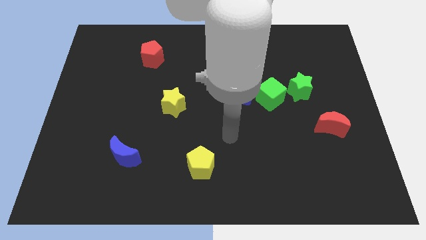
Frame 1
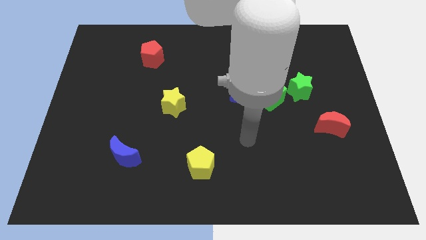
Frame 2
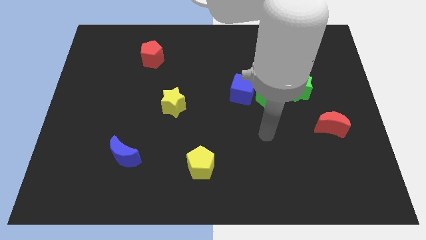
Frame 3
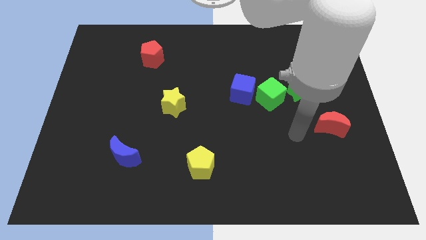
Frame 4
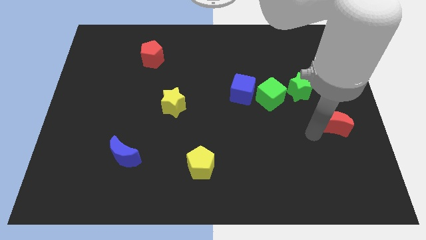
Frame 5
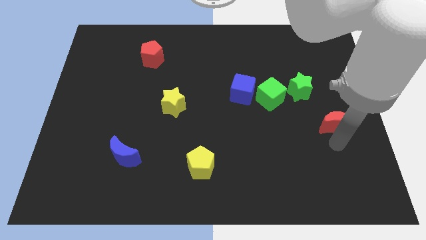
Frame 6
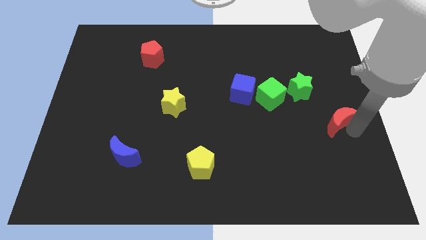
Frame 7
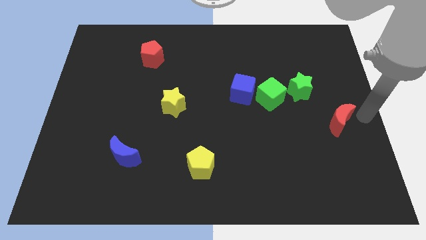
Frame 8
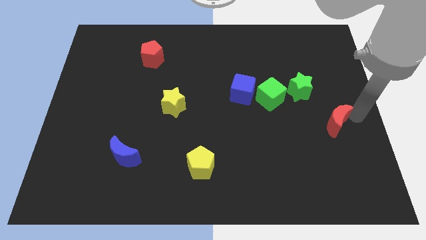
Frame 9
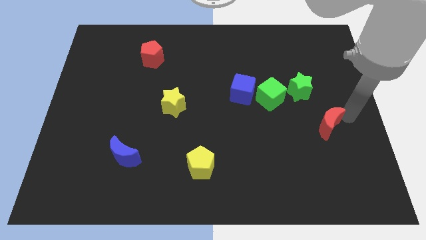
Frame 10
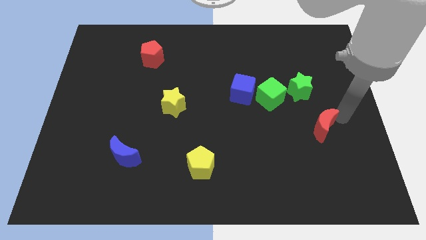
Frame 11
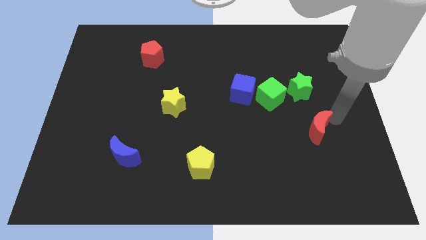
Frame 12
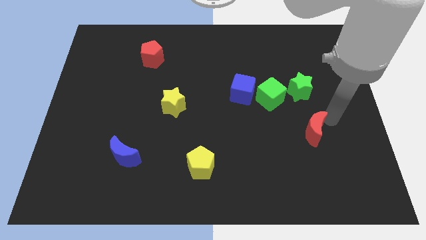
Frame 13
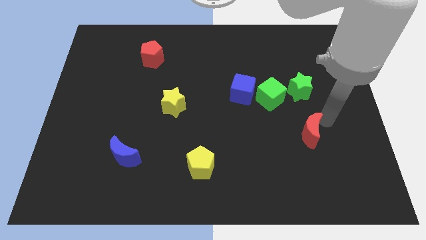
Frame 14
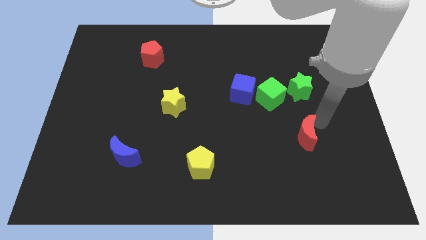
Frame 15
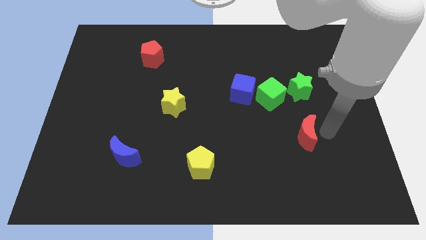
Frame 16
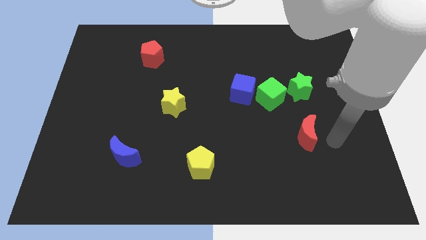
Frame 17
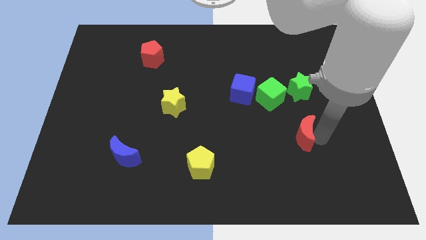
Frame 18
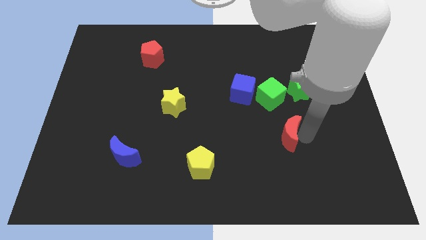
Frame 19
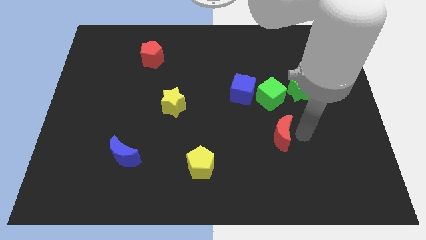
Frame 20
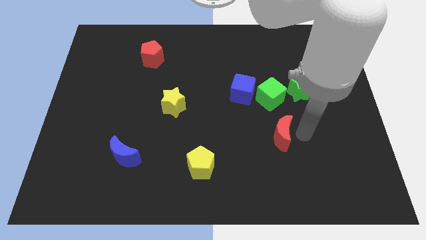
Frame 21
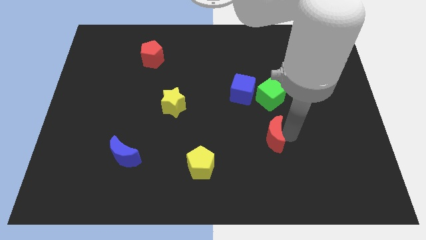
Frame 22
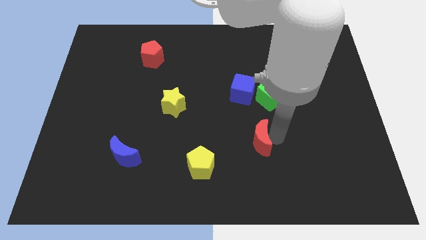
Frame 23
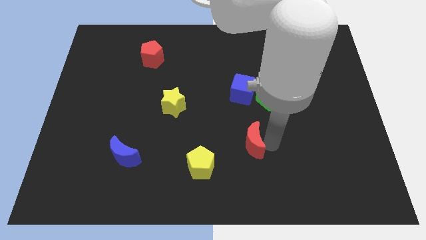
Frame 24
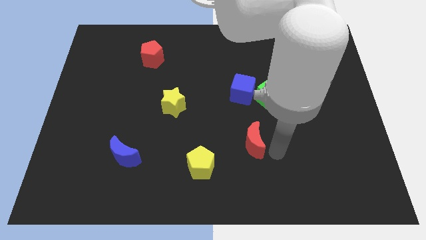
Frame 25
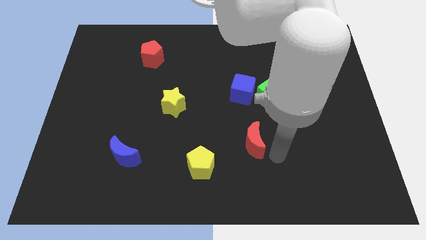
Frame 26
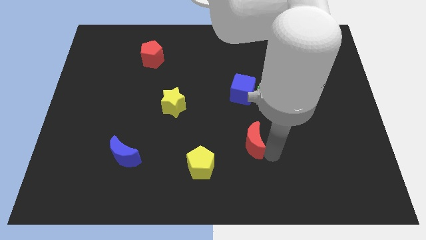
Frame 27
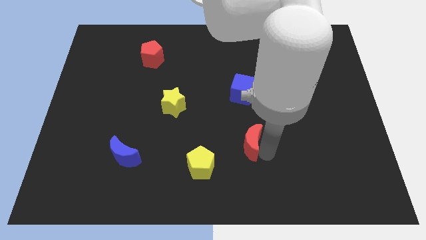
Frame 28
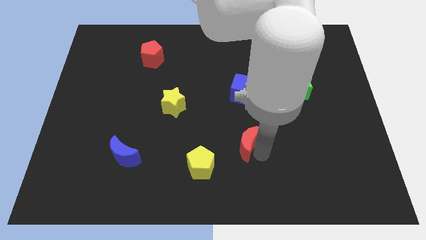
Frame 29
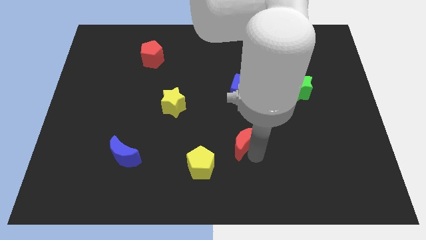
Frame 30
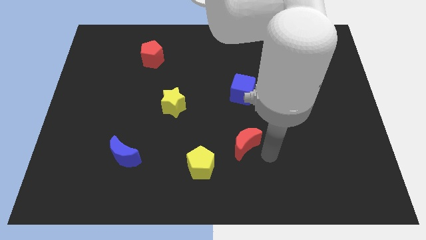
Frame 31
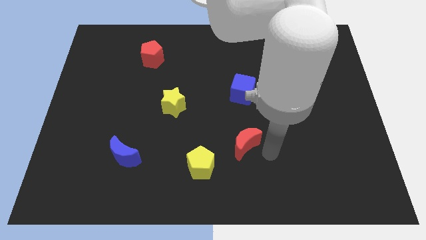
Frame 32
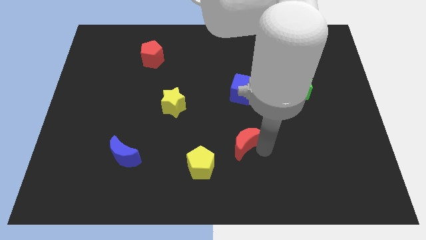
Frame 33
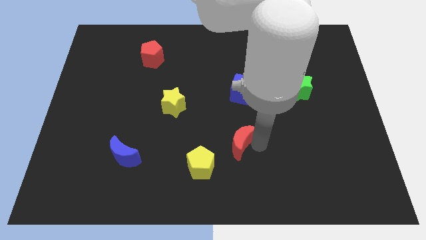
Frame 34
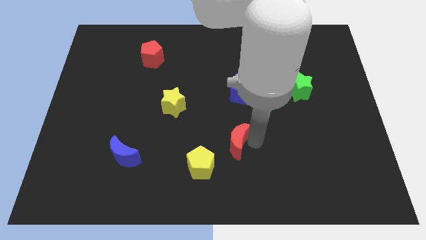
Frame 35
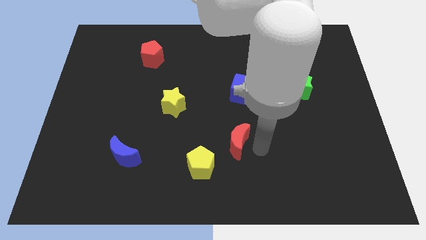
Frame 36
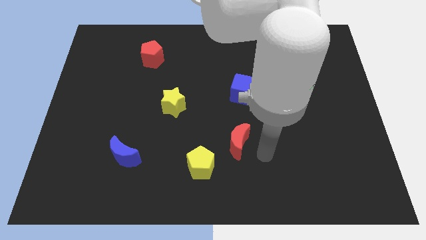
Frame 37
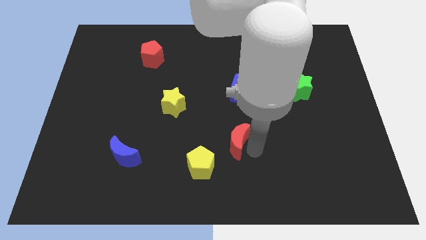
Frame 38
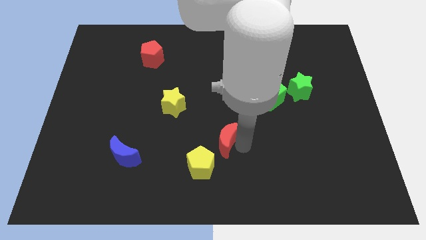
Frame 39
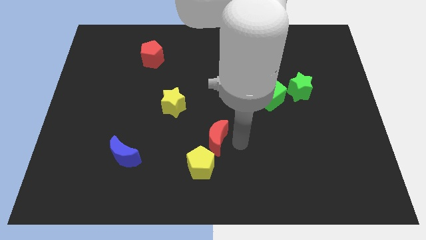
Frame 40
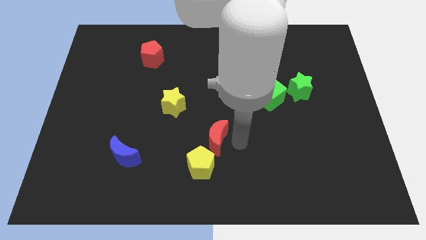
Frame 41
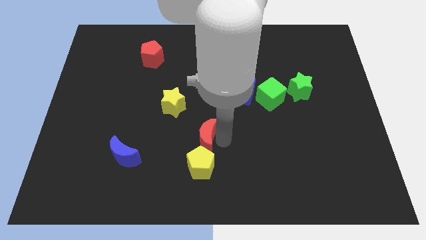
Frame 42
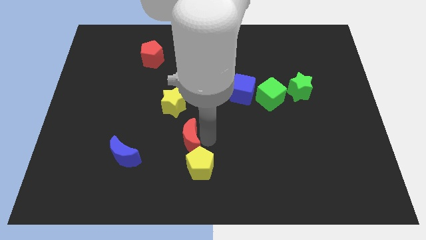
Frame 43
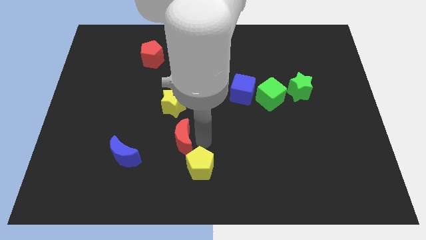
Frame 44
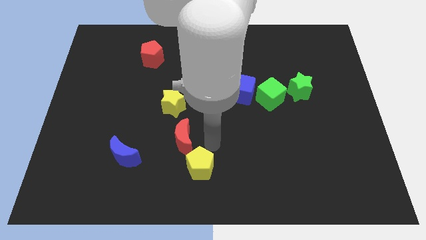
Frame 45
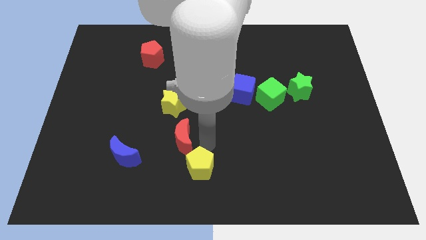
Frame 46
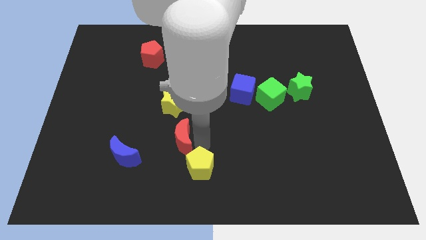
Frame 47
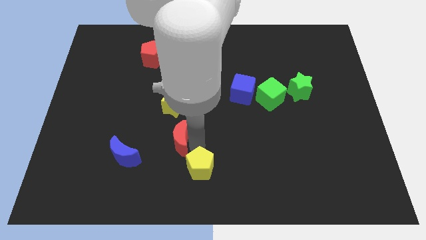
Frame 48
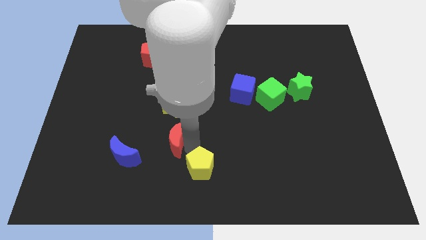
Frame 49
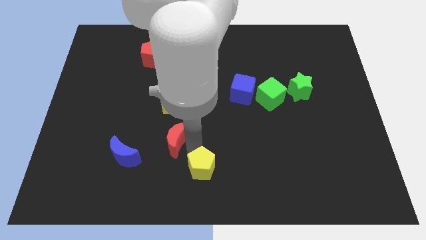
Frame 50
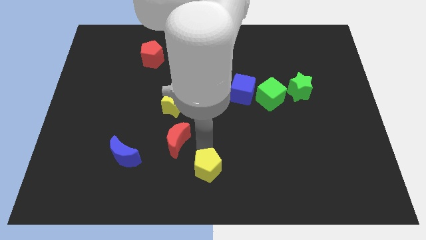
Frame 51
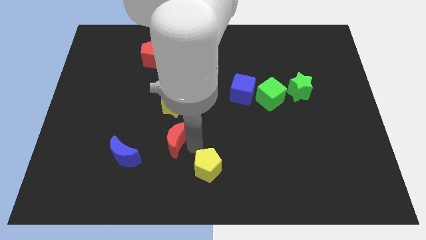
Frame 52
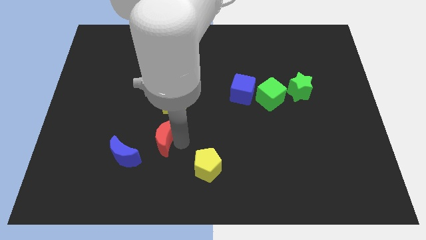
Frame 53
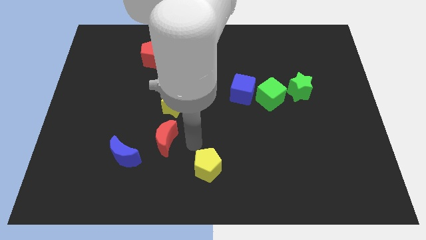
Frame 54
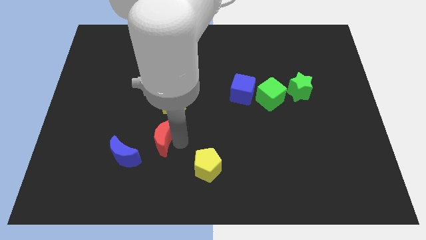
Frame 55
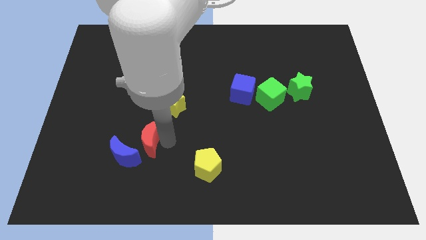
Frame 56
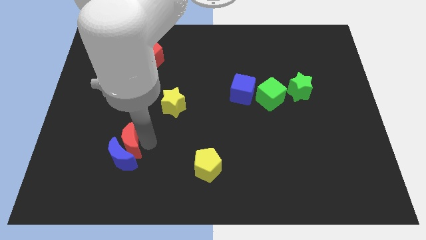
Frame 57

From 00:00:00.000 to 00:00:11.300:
move the red moon diagonally up and to the left of the blue moon

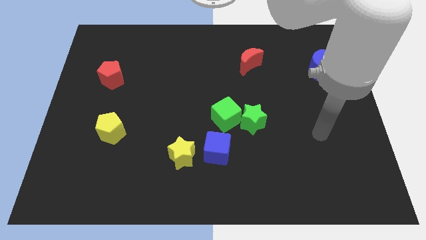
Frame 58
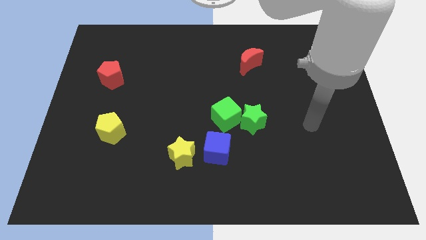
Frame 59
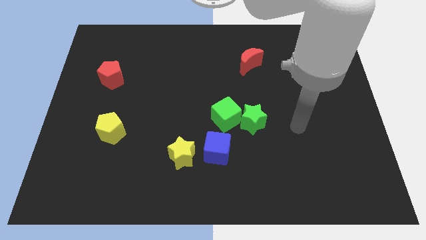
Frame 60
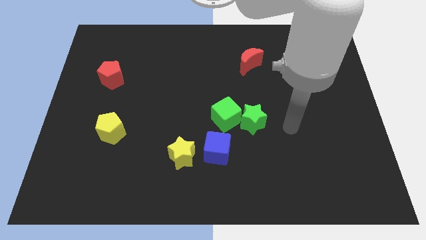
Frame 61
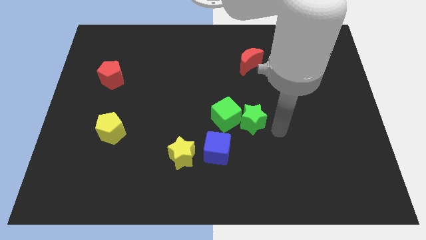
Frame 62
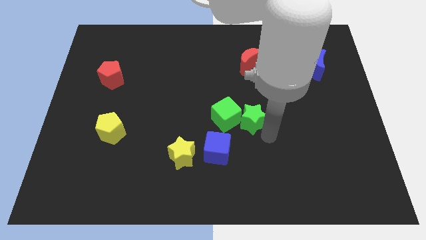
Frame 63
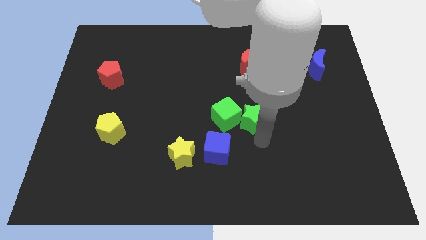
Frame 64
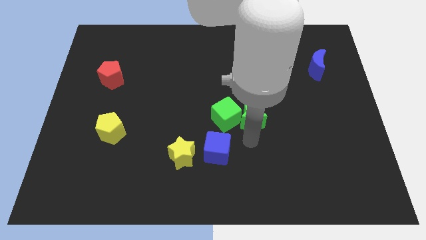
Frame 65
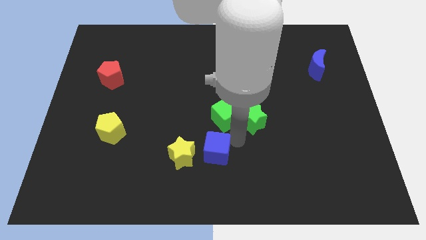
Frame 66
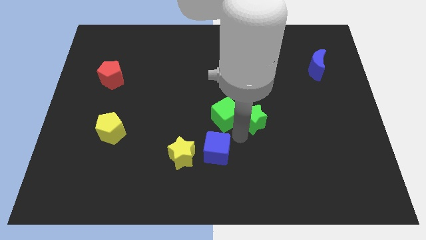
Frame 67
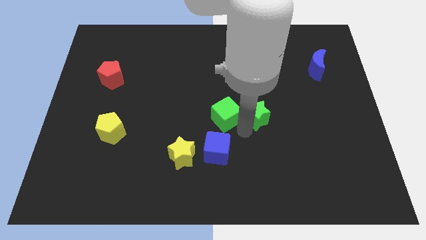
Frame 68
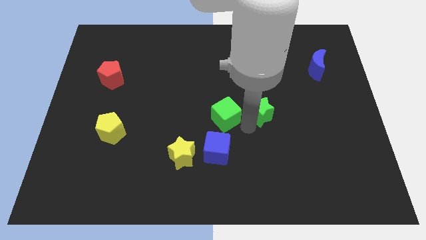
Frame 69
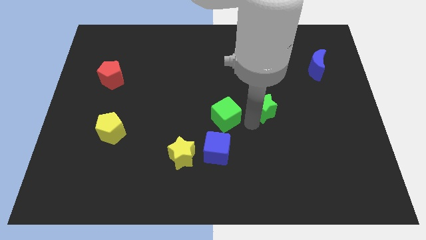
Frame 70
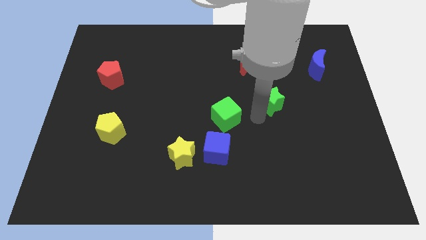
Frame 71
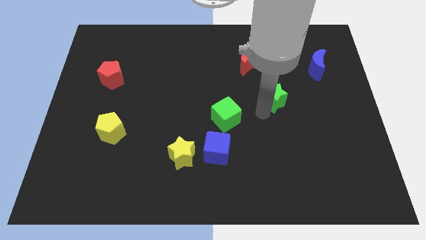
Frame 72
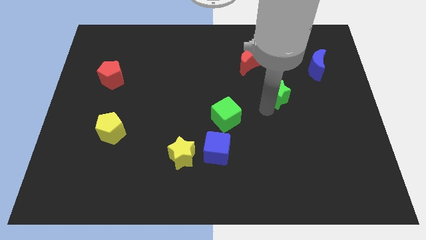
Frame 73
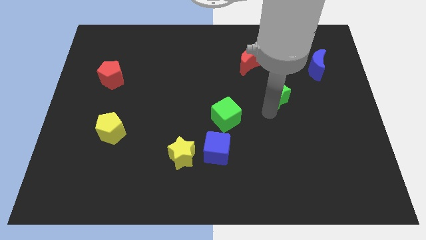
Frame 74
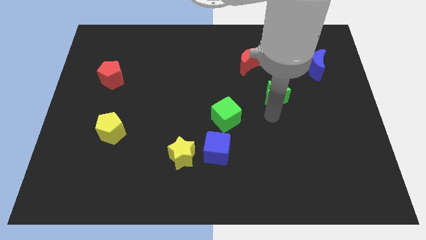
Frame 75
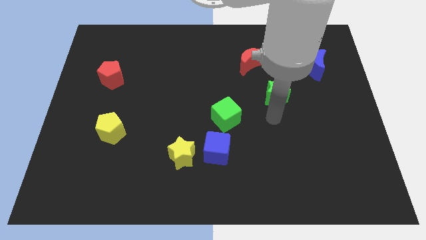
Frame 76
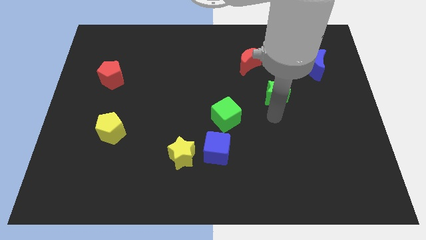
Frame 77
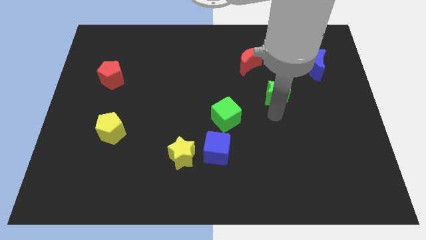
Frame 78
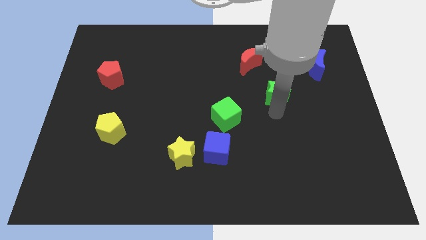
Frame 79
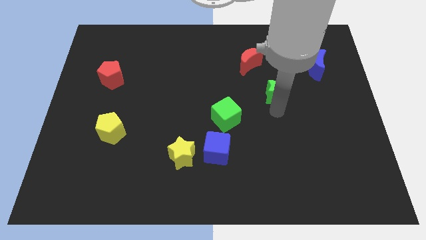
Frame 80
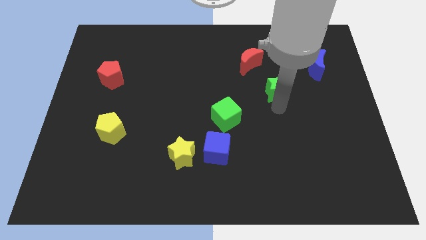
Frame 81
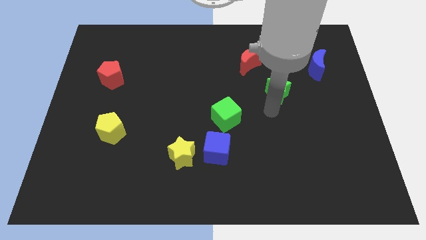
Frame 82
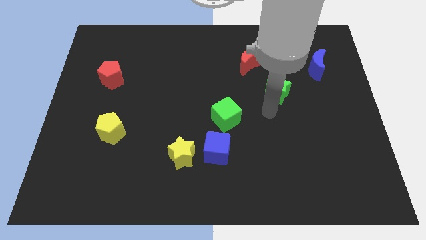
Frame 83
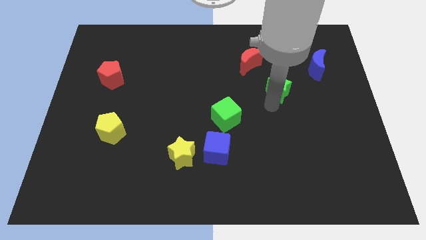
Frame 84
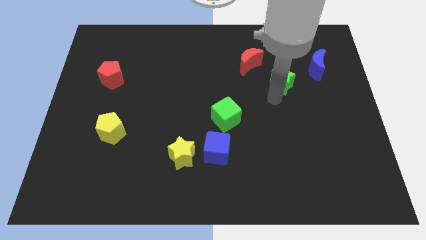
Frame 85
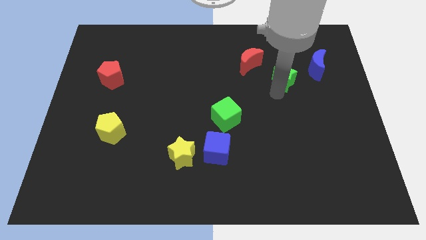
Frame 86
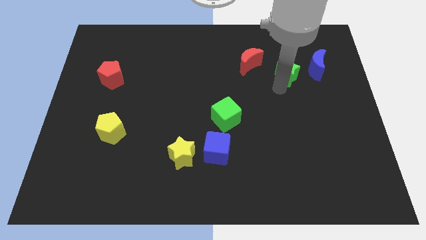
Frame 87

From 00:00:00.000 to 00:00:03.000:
move the green star to the right of the red moon
